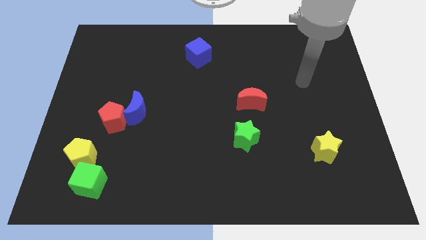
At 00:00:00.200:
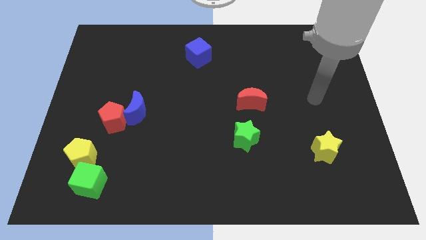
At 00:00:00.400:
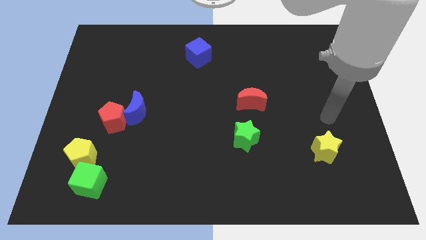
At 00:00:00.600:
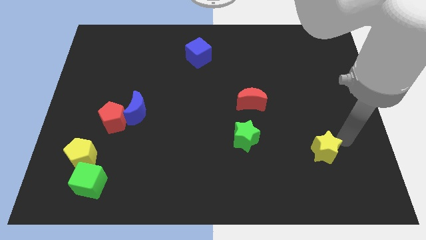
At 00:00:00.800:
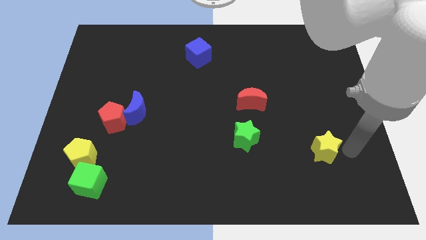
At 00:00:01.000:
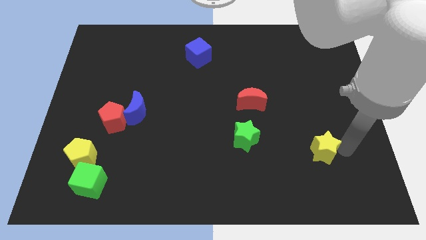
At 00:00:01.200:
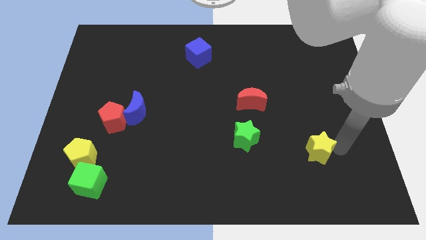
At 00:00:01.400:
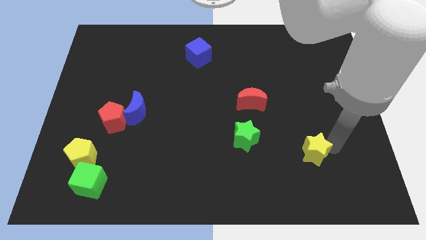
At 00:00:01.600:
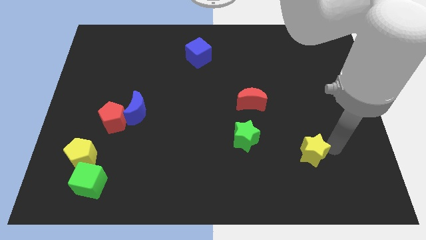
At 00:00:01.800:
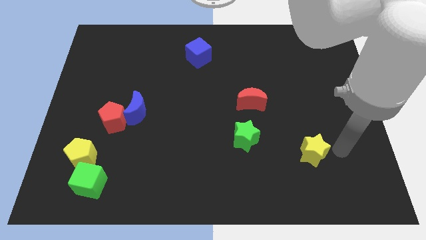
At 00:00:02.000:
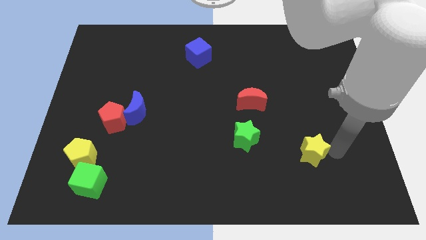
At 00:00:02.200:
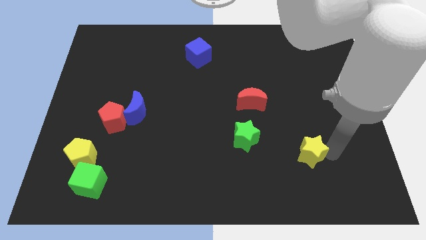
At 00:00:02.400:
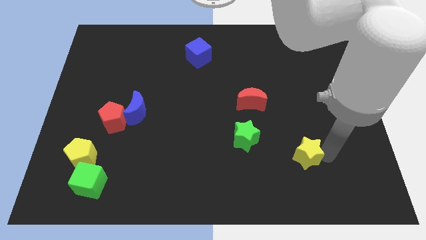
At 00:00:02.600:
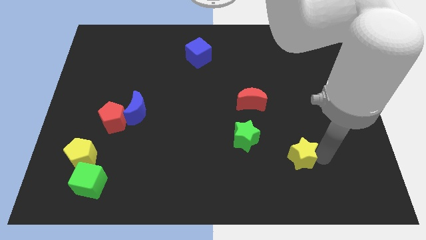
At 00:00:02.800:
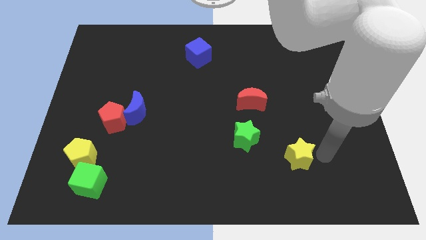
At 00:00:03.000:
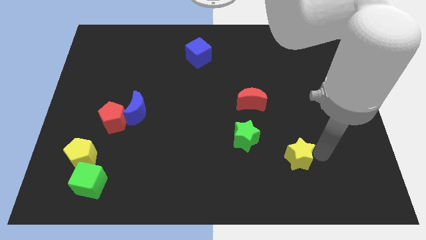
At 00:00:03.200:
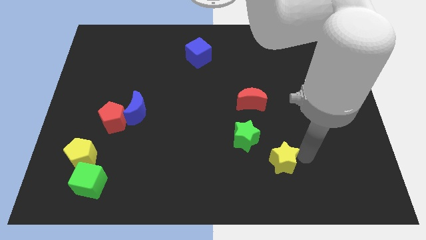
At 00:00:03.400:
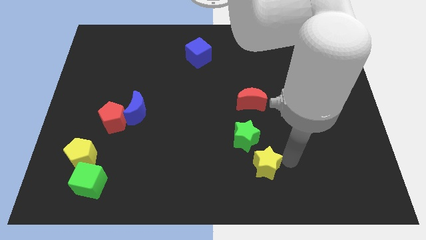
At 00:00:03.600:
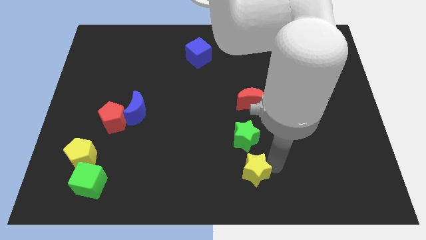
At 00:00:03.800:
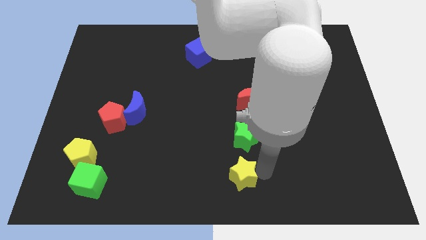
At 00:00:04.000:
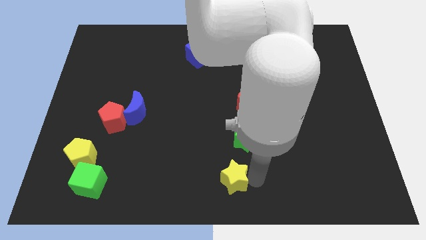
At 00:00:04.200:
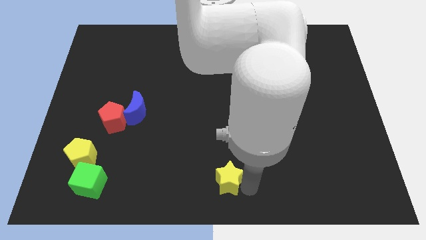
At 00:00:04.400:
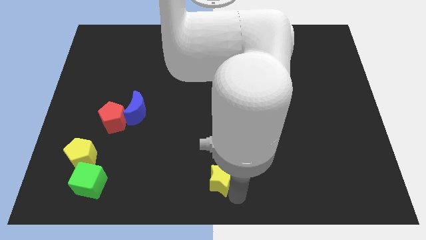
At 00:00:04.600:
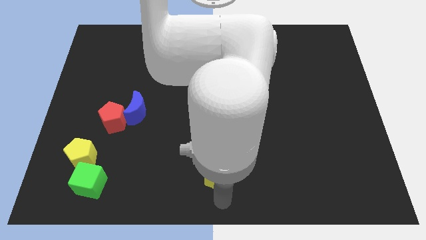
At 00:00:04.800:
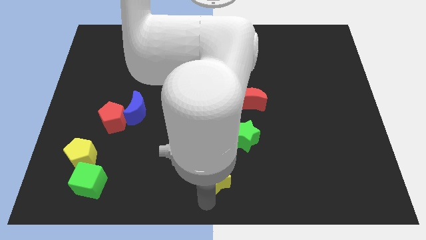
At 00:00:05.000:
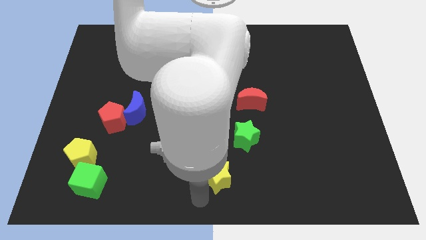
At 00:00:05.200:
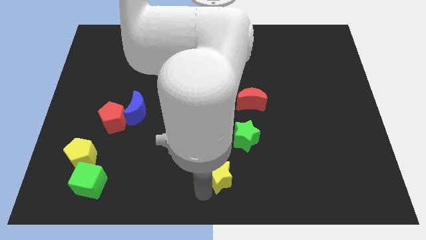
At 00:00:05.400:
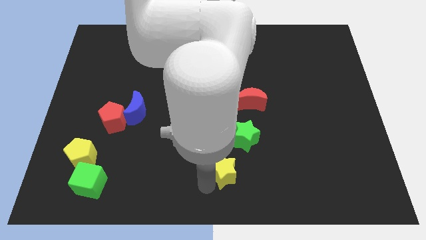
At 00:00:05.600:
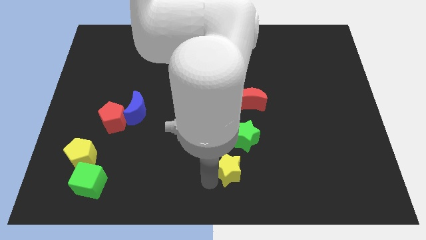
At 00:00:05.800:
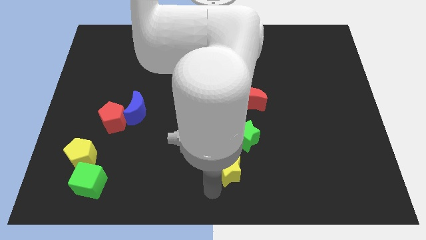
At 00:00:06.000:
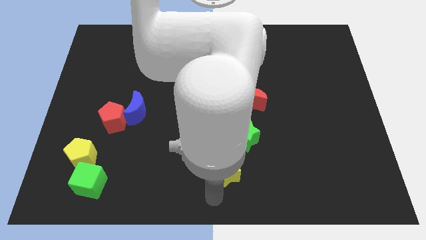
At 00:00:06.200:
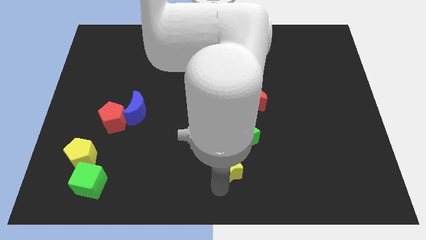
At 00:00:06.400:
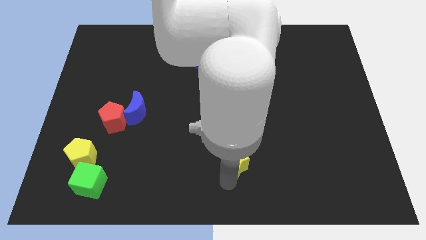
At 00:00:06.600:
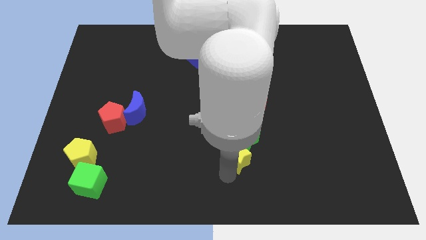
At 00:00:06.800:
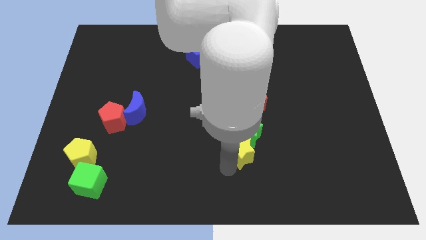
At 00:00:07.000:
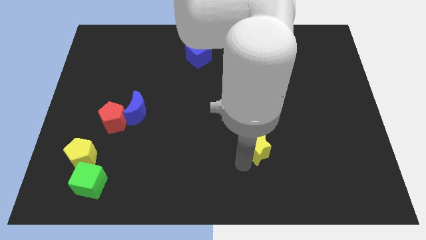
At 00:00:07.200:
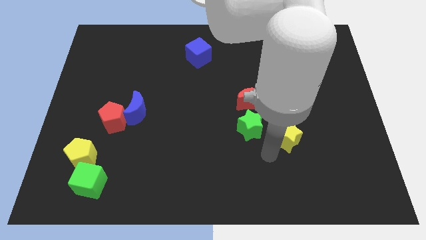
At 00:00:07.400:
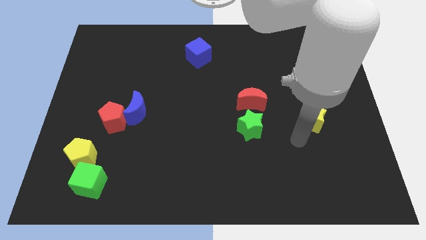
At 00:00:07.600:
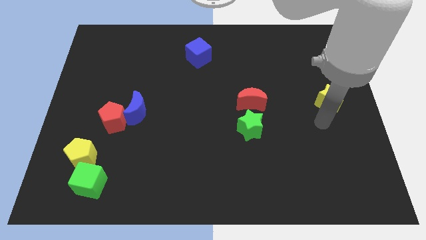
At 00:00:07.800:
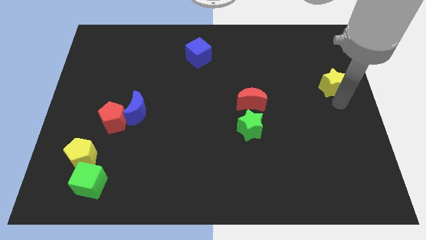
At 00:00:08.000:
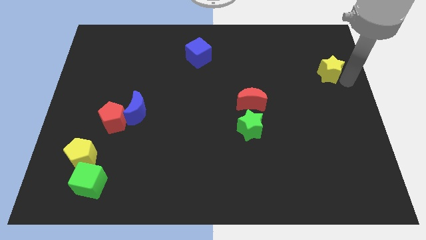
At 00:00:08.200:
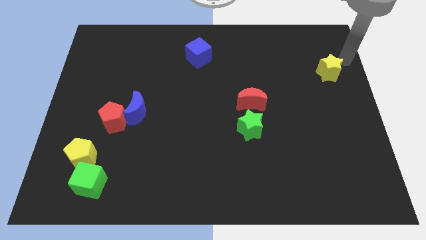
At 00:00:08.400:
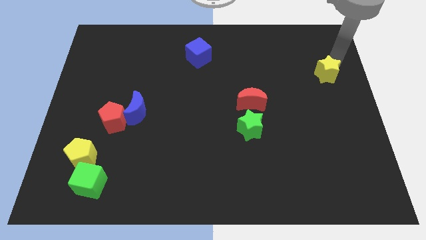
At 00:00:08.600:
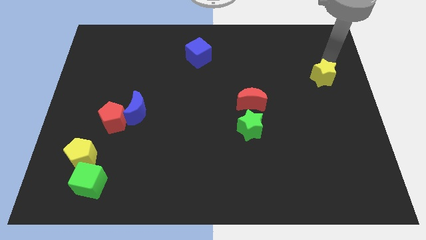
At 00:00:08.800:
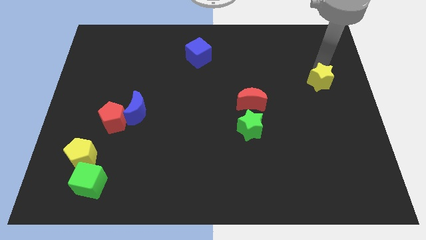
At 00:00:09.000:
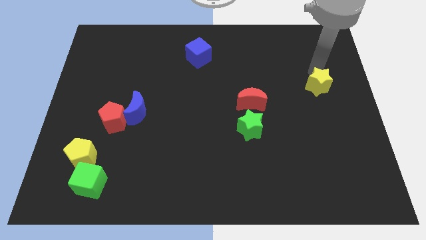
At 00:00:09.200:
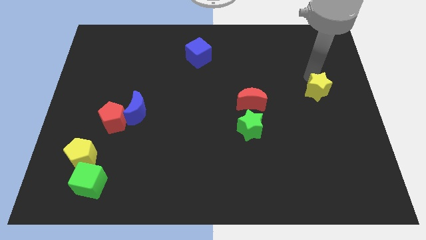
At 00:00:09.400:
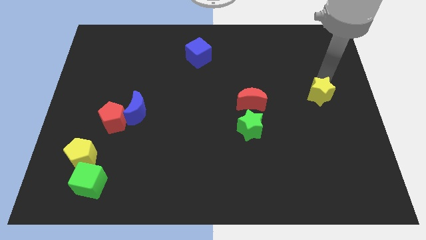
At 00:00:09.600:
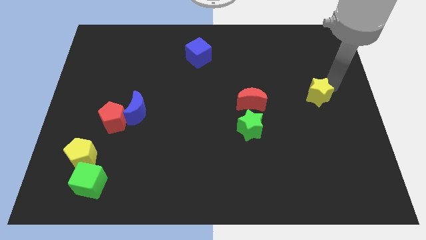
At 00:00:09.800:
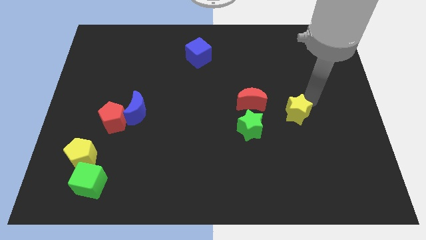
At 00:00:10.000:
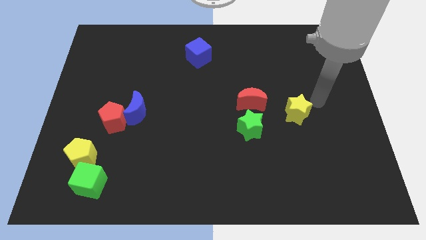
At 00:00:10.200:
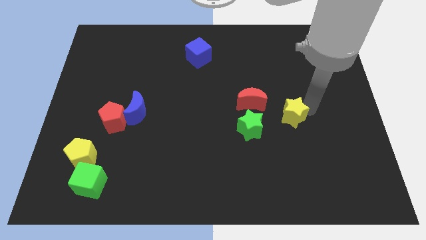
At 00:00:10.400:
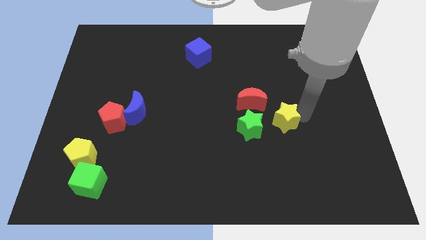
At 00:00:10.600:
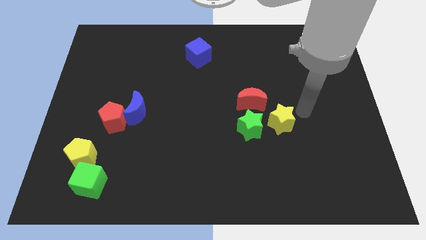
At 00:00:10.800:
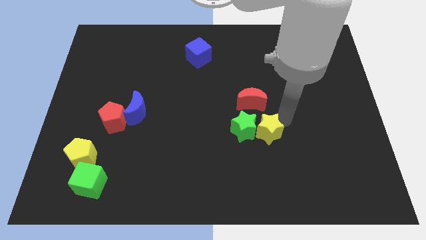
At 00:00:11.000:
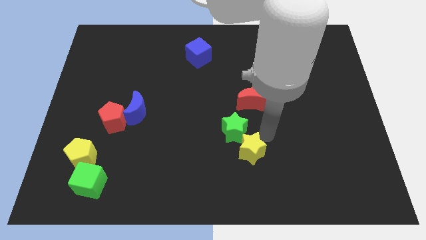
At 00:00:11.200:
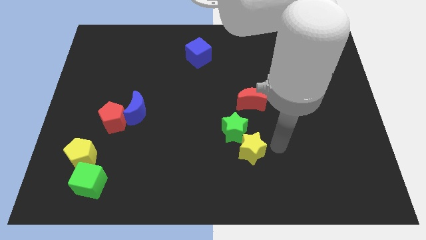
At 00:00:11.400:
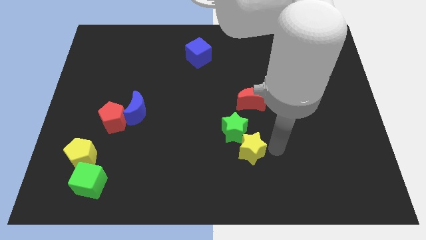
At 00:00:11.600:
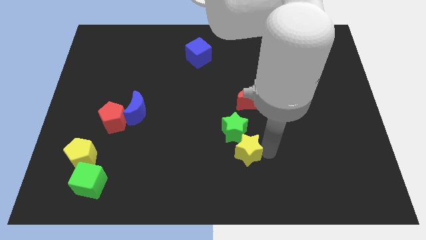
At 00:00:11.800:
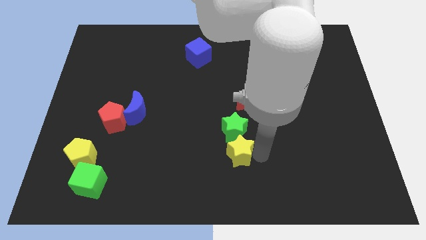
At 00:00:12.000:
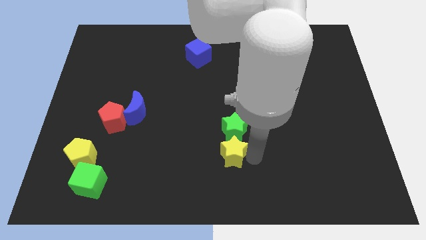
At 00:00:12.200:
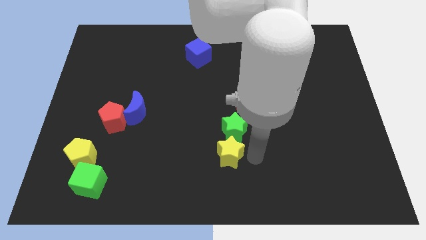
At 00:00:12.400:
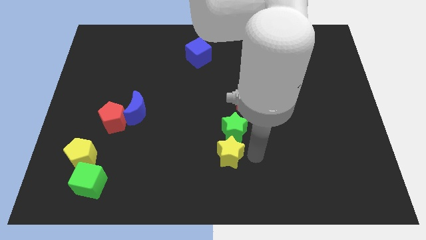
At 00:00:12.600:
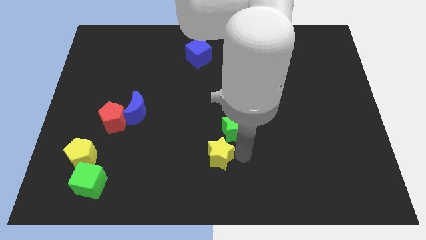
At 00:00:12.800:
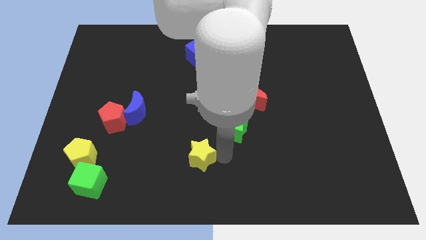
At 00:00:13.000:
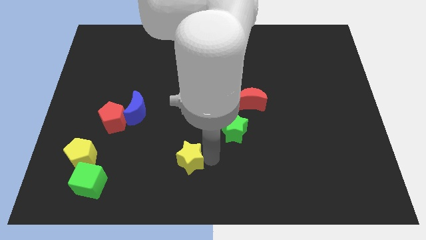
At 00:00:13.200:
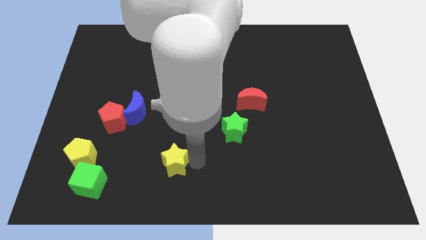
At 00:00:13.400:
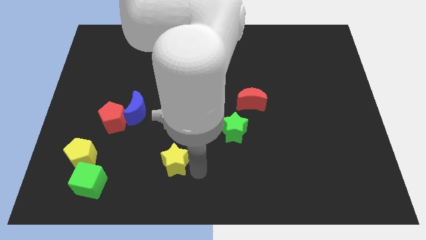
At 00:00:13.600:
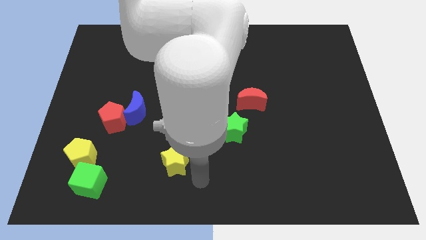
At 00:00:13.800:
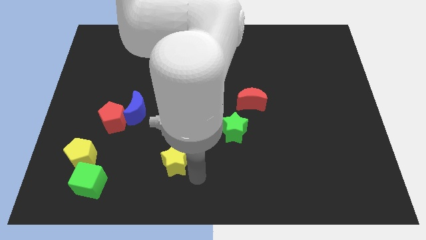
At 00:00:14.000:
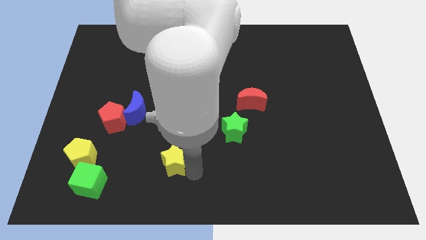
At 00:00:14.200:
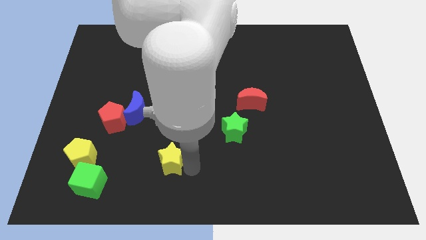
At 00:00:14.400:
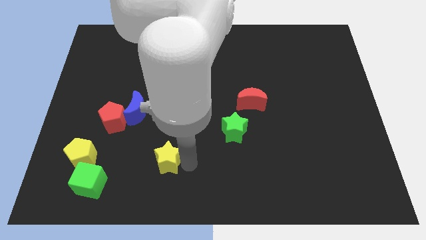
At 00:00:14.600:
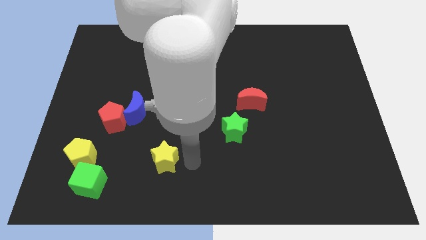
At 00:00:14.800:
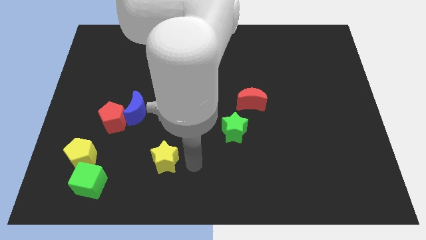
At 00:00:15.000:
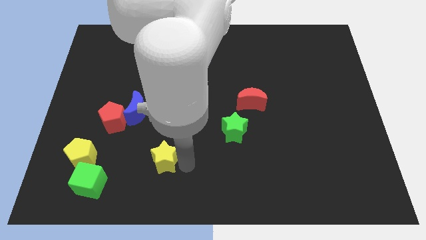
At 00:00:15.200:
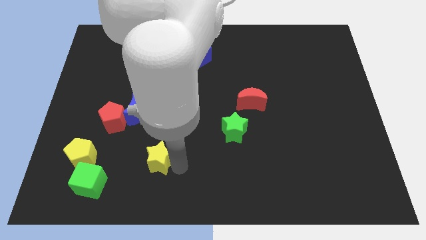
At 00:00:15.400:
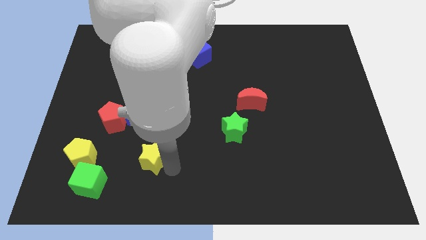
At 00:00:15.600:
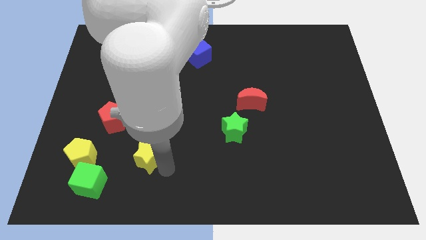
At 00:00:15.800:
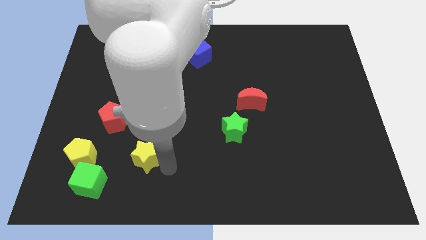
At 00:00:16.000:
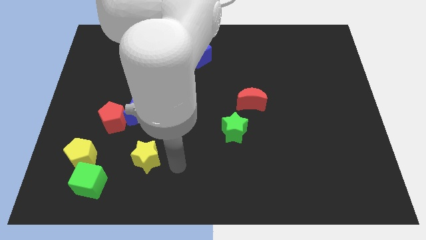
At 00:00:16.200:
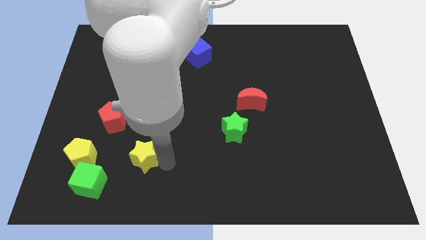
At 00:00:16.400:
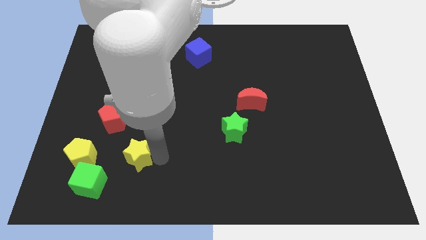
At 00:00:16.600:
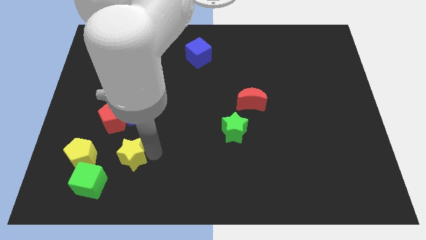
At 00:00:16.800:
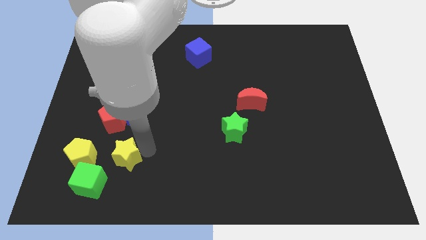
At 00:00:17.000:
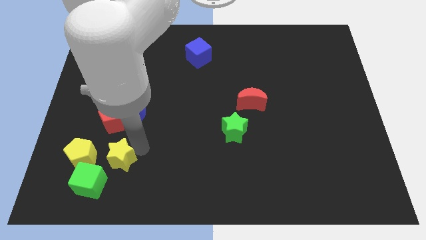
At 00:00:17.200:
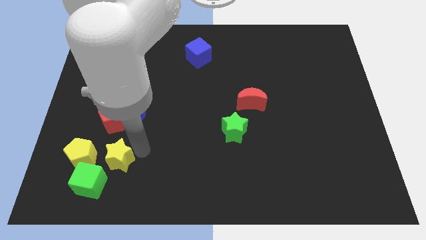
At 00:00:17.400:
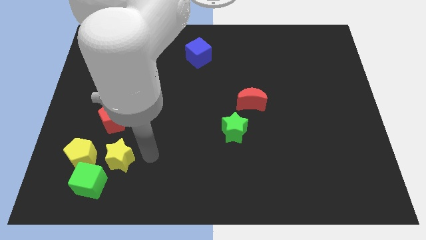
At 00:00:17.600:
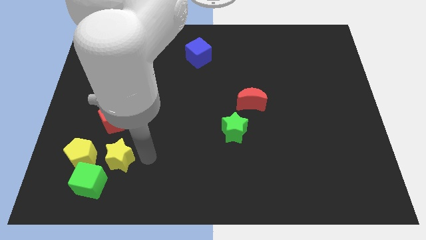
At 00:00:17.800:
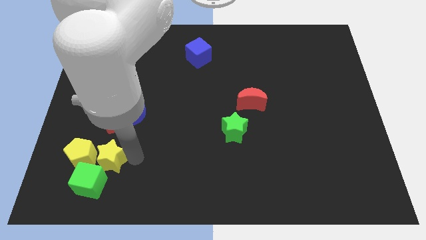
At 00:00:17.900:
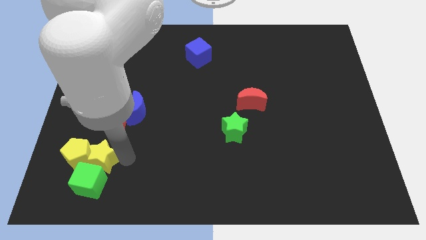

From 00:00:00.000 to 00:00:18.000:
move the yellow star next to the yellow pentagon
